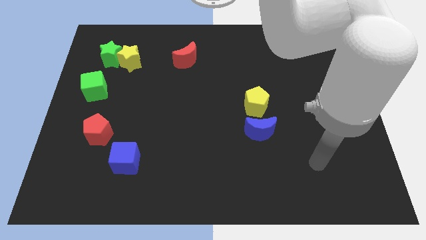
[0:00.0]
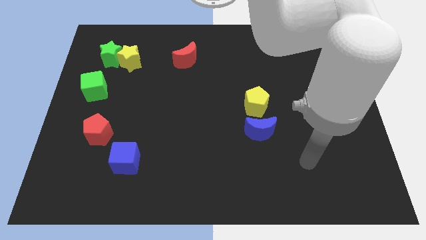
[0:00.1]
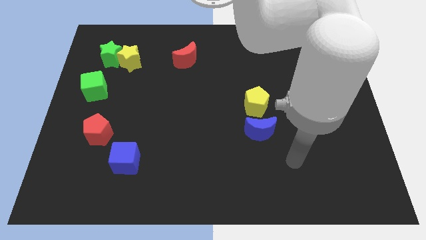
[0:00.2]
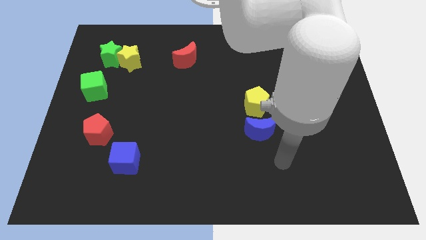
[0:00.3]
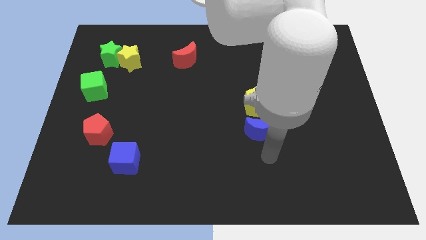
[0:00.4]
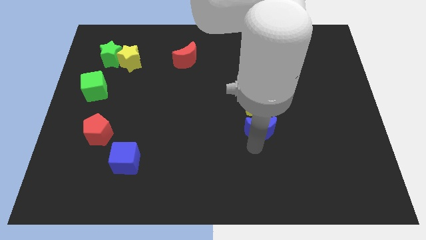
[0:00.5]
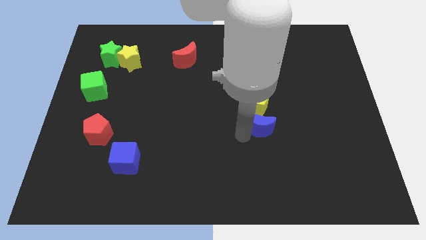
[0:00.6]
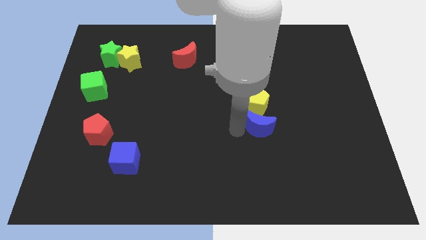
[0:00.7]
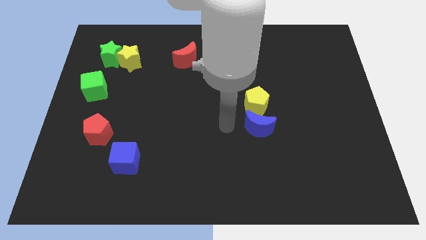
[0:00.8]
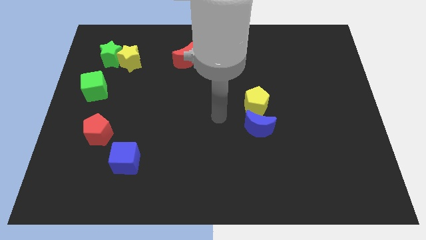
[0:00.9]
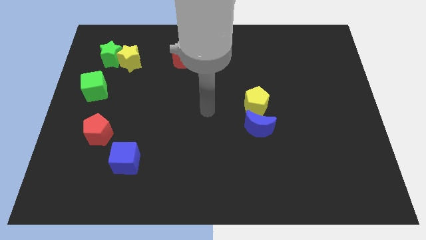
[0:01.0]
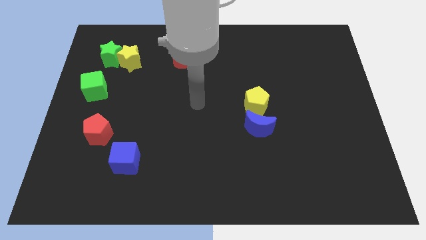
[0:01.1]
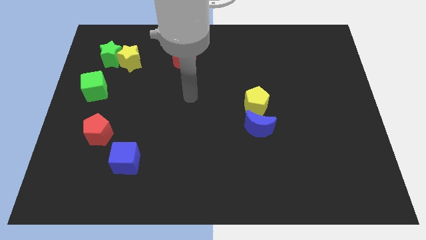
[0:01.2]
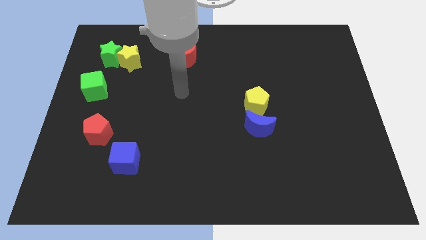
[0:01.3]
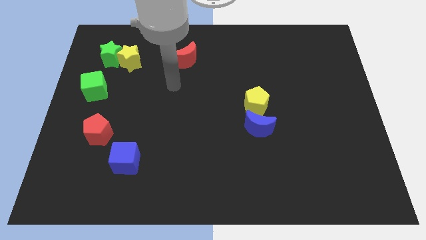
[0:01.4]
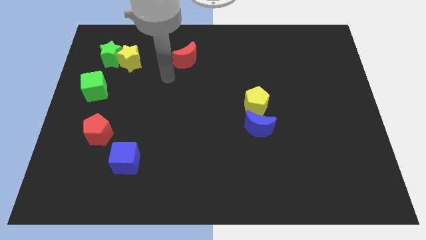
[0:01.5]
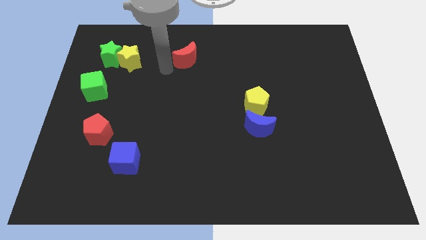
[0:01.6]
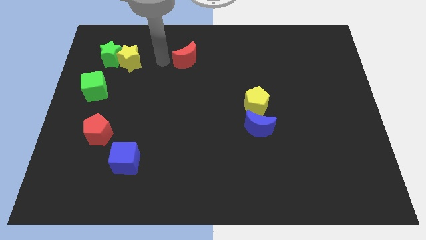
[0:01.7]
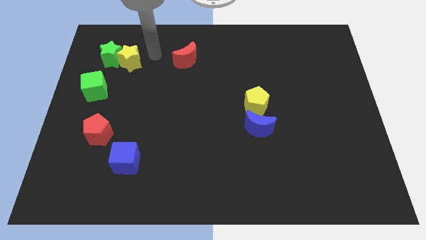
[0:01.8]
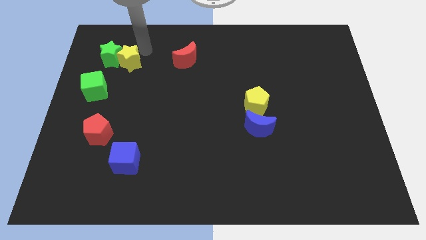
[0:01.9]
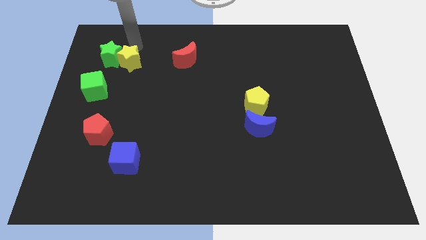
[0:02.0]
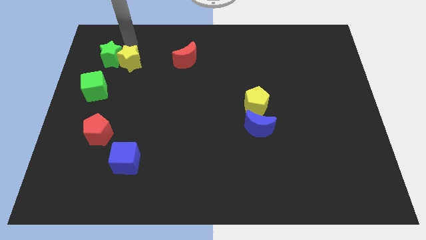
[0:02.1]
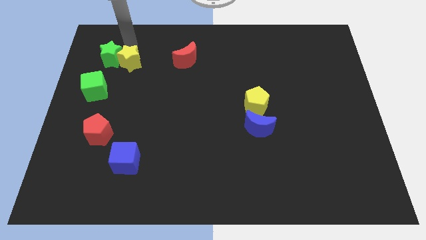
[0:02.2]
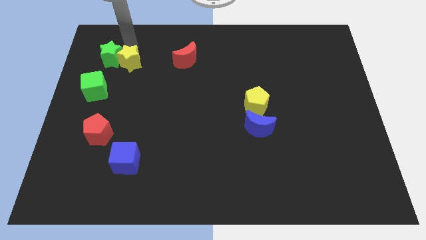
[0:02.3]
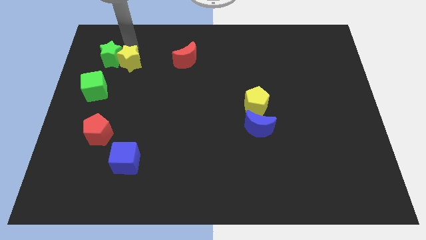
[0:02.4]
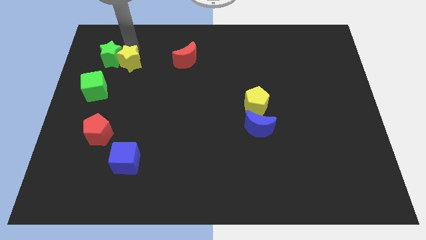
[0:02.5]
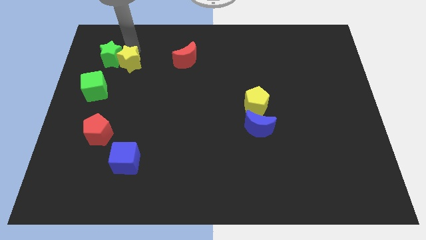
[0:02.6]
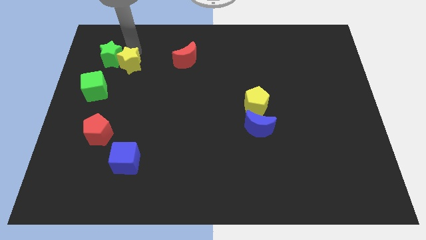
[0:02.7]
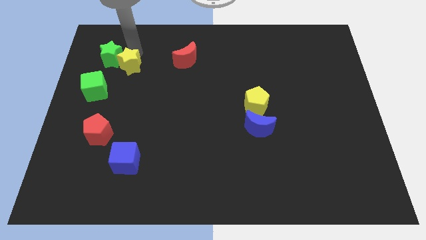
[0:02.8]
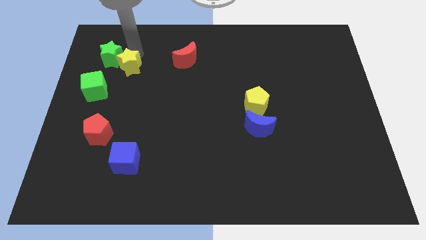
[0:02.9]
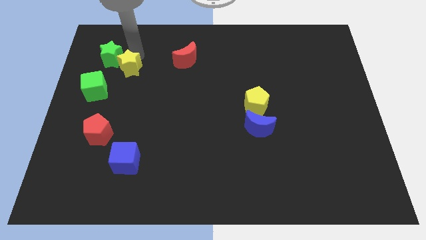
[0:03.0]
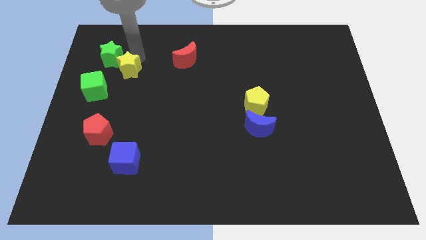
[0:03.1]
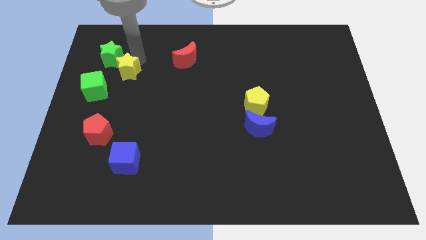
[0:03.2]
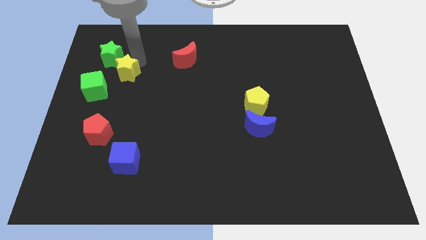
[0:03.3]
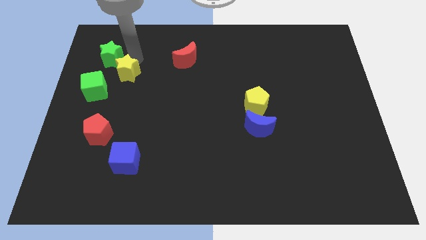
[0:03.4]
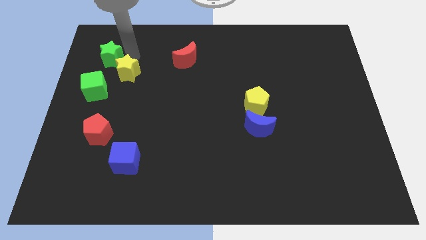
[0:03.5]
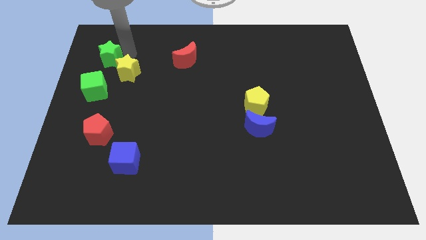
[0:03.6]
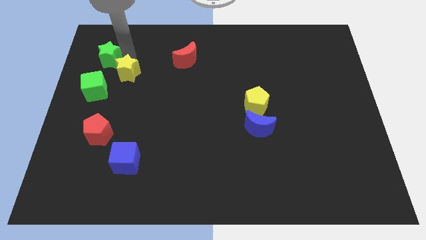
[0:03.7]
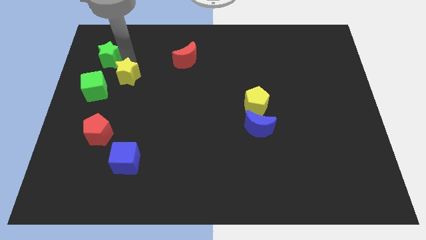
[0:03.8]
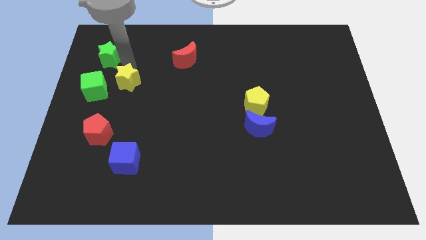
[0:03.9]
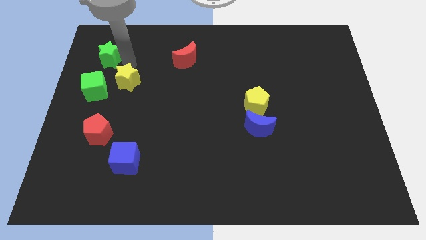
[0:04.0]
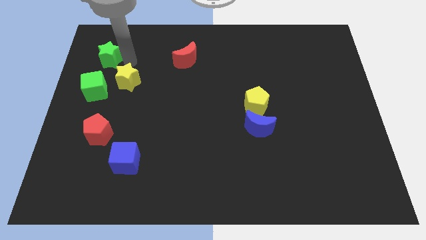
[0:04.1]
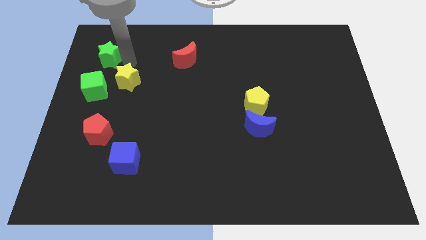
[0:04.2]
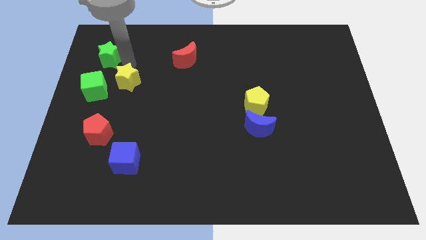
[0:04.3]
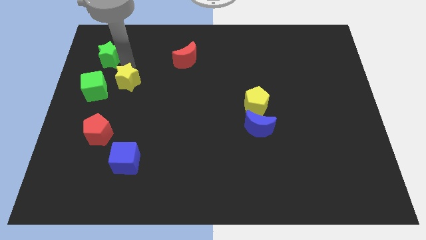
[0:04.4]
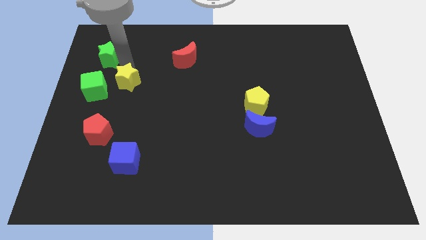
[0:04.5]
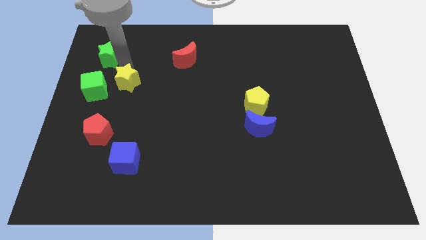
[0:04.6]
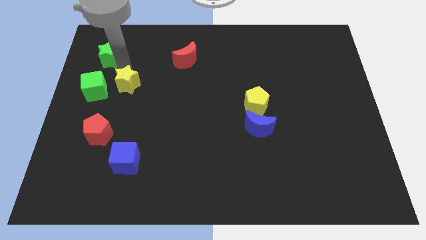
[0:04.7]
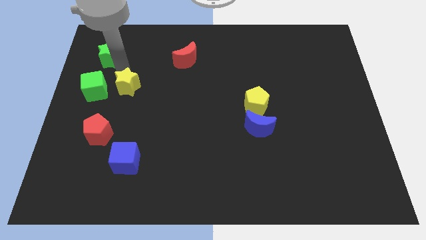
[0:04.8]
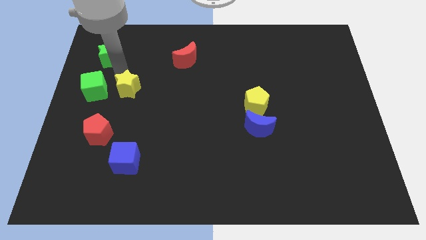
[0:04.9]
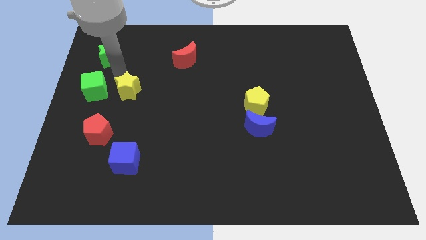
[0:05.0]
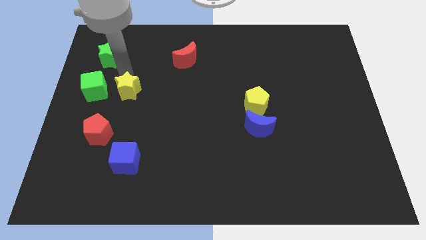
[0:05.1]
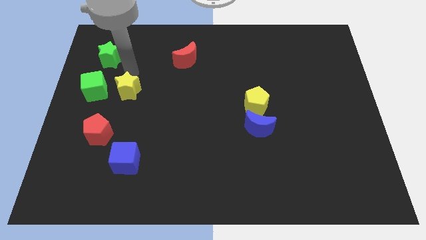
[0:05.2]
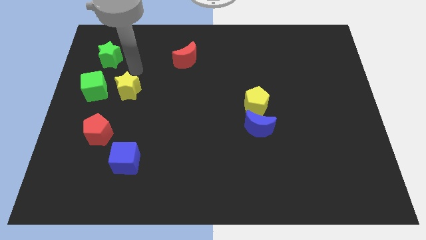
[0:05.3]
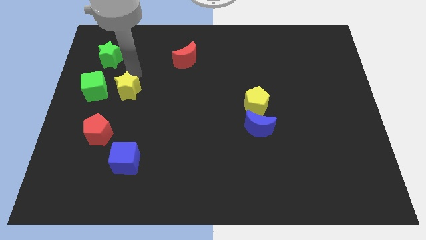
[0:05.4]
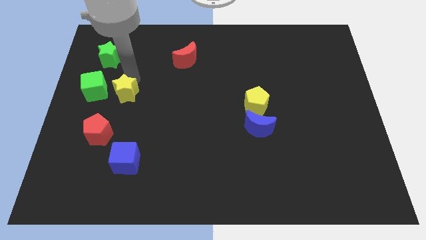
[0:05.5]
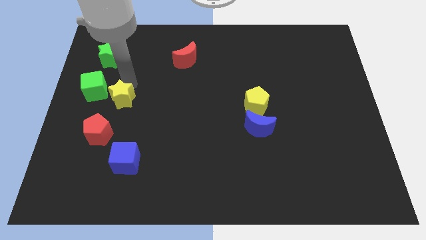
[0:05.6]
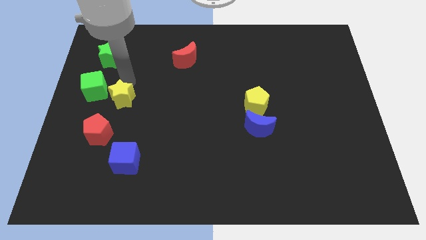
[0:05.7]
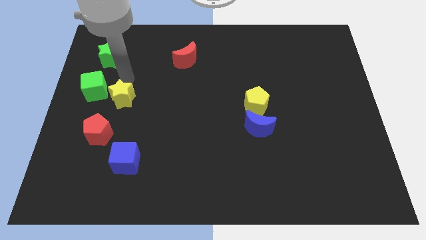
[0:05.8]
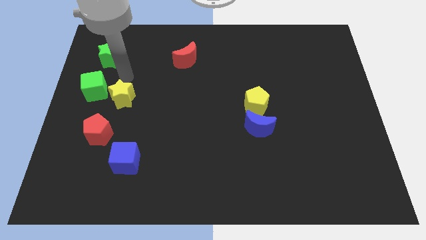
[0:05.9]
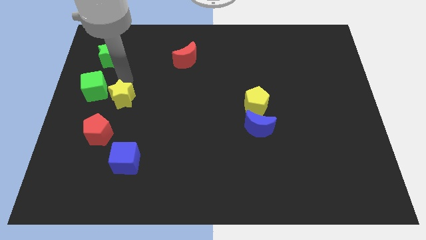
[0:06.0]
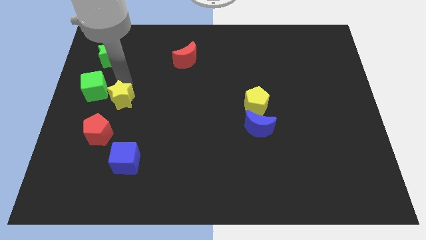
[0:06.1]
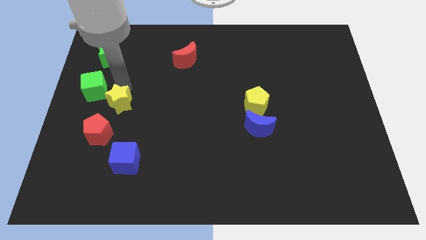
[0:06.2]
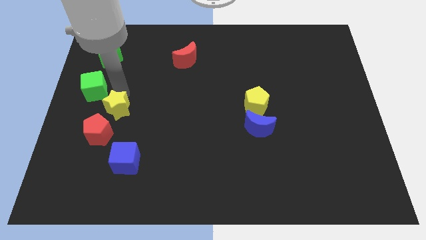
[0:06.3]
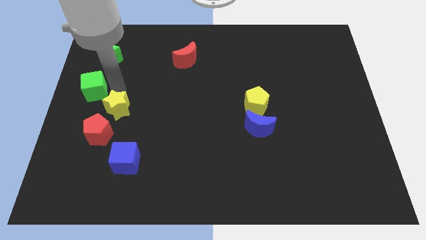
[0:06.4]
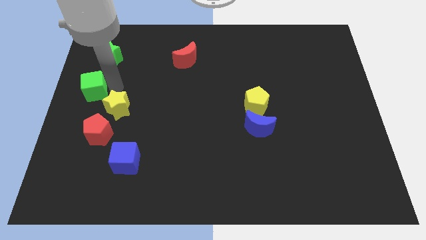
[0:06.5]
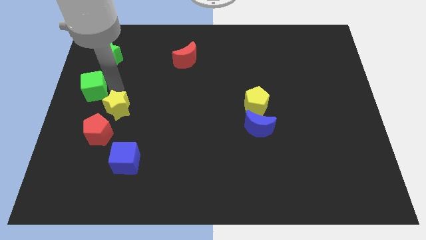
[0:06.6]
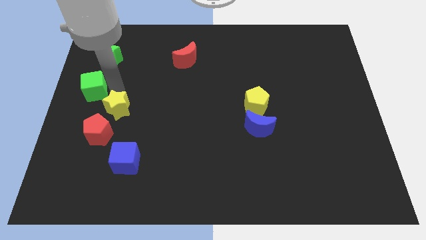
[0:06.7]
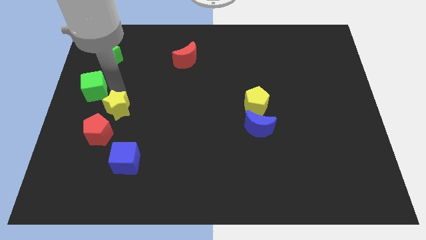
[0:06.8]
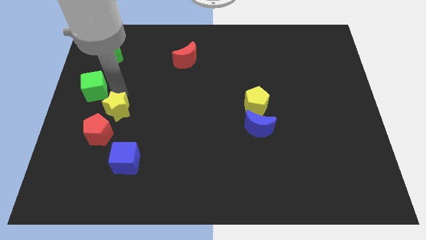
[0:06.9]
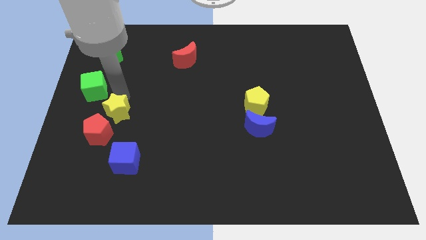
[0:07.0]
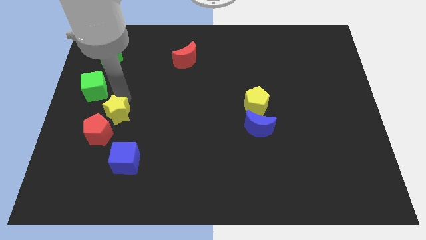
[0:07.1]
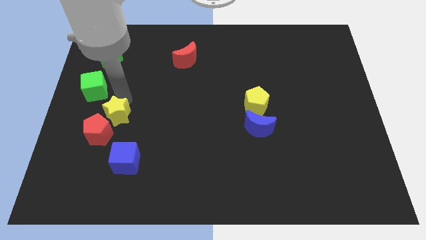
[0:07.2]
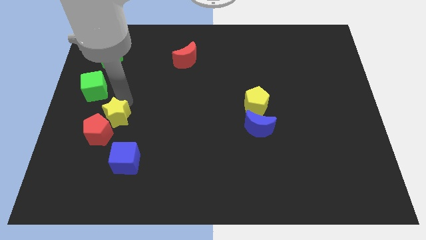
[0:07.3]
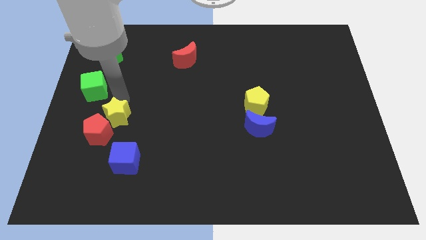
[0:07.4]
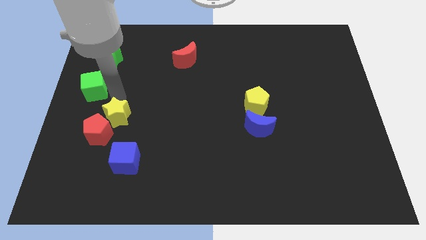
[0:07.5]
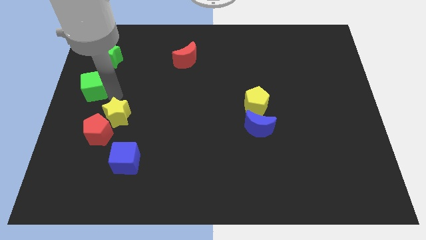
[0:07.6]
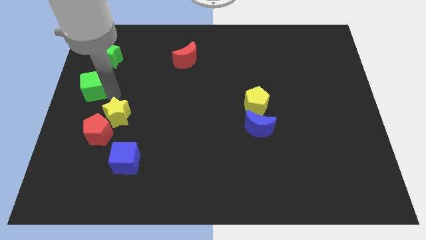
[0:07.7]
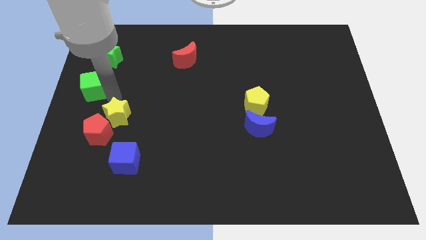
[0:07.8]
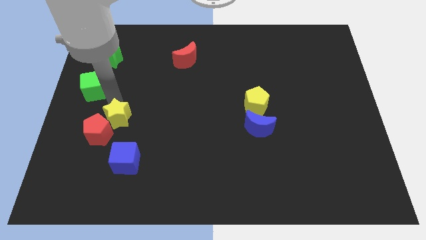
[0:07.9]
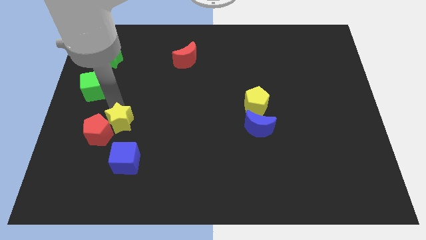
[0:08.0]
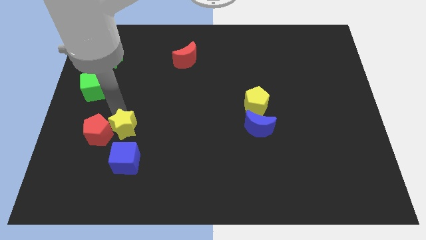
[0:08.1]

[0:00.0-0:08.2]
slide the yellow star downwards
